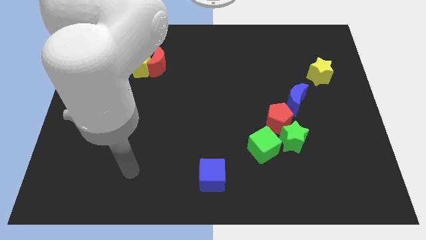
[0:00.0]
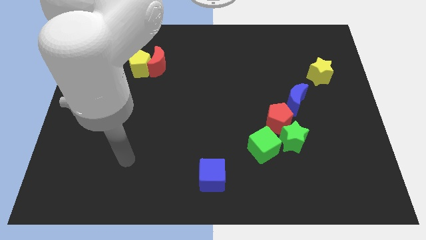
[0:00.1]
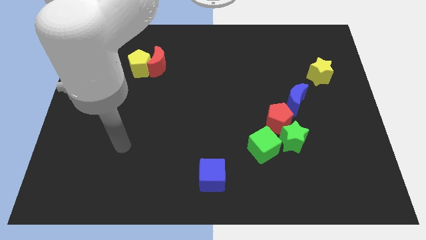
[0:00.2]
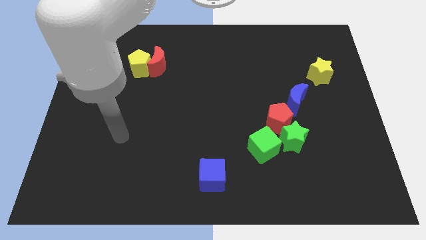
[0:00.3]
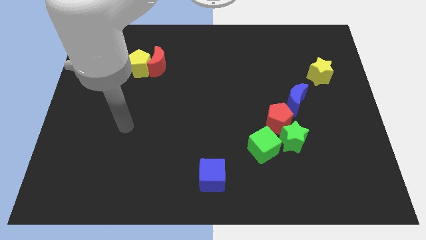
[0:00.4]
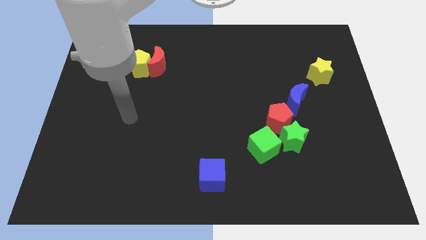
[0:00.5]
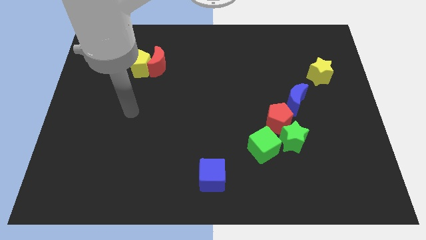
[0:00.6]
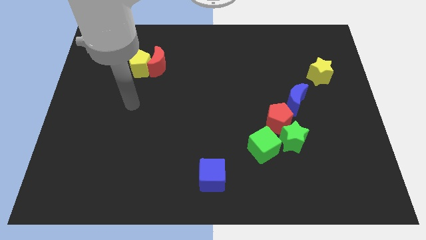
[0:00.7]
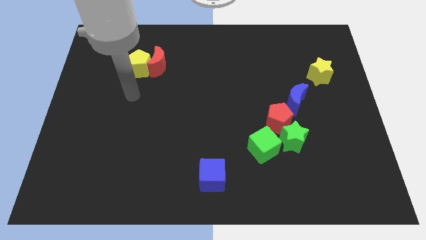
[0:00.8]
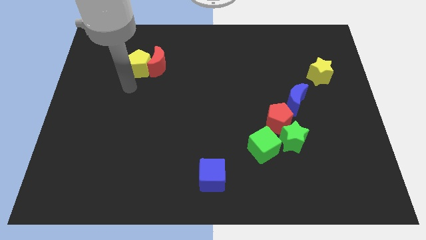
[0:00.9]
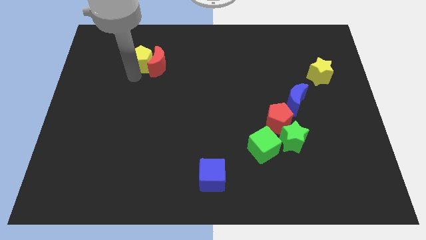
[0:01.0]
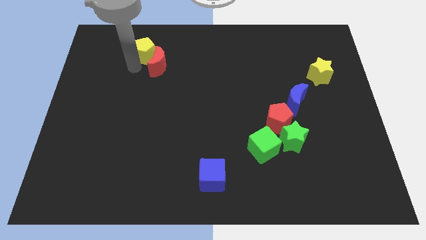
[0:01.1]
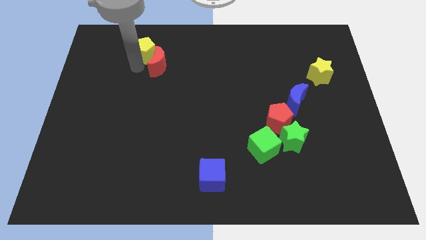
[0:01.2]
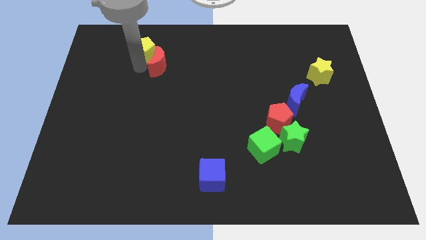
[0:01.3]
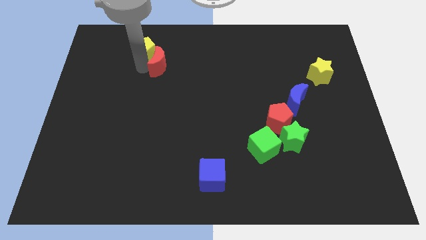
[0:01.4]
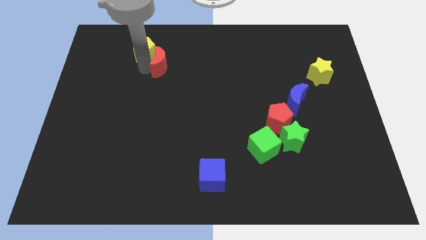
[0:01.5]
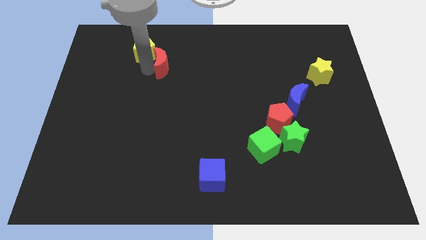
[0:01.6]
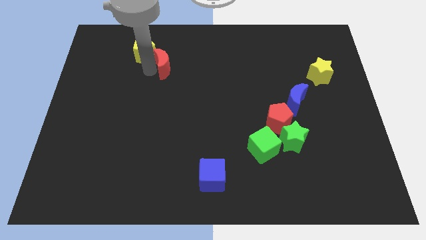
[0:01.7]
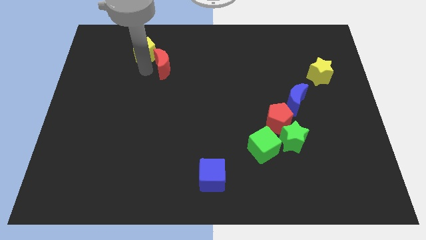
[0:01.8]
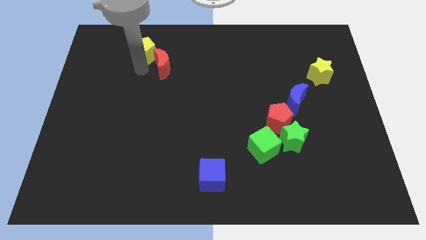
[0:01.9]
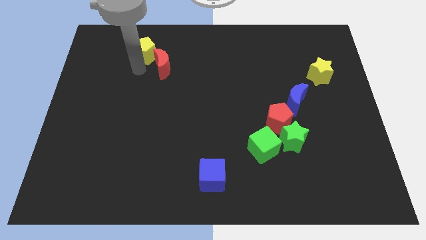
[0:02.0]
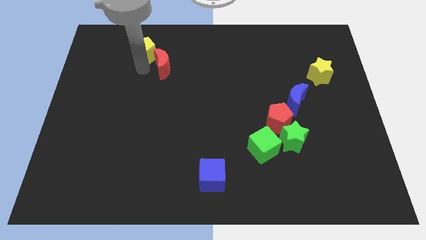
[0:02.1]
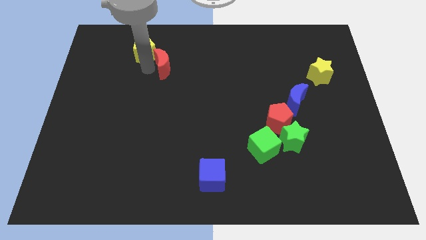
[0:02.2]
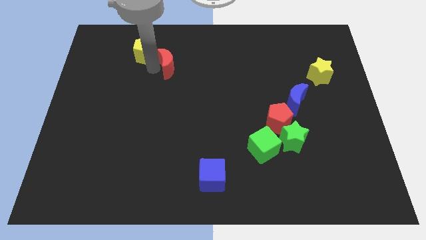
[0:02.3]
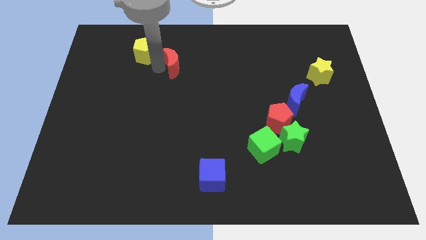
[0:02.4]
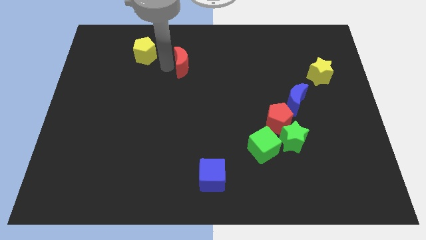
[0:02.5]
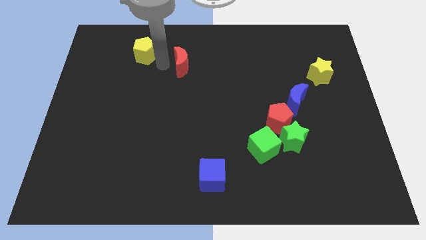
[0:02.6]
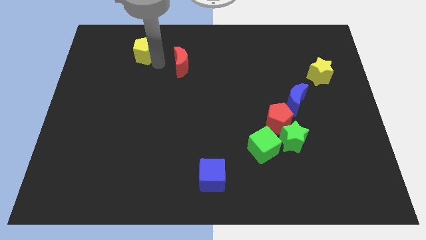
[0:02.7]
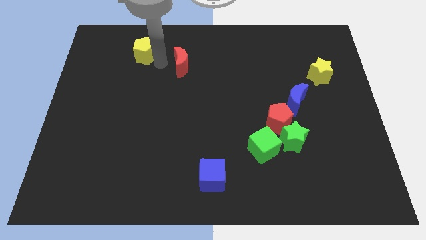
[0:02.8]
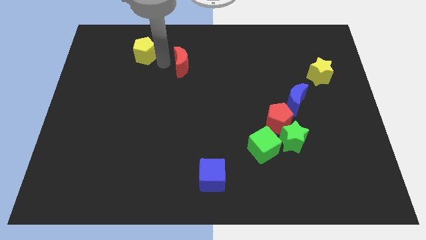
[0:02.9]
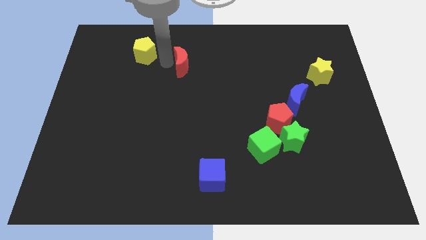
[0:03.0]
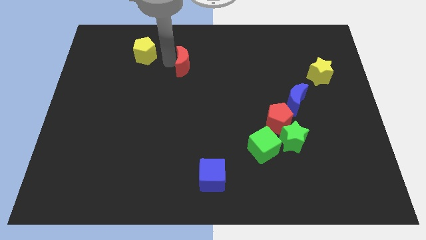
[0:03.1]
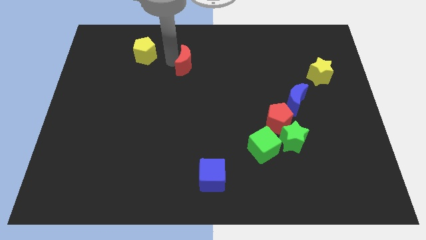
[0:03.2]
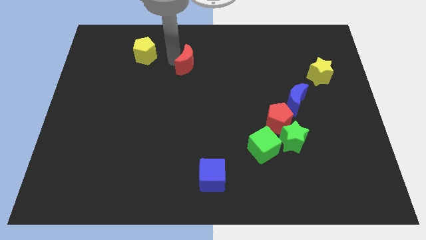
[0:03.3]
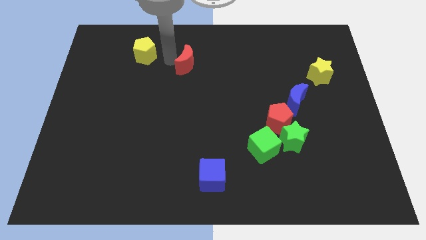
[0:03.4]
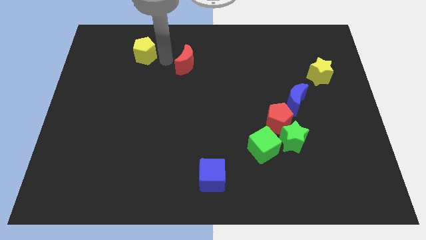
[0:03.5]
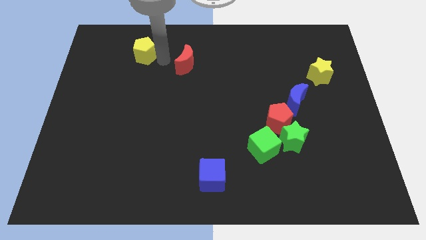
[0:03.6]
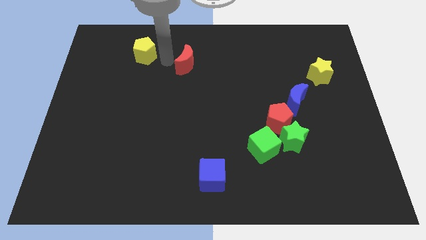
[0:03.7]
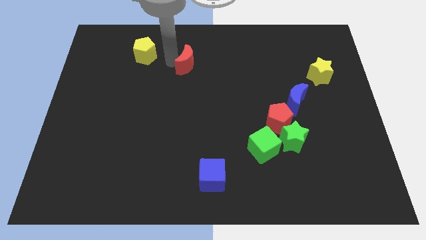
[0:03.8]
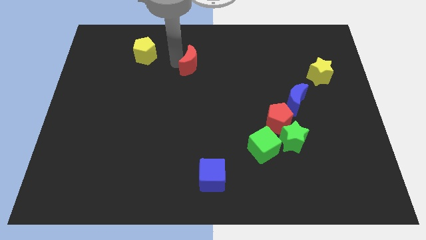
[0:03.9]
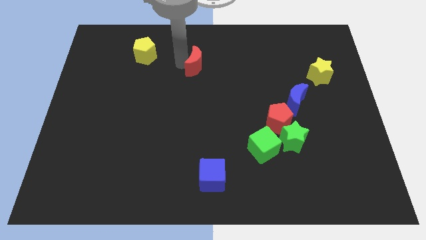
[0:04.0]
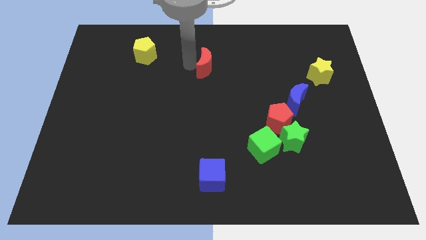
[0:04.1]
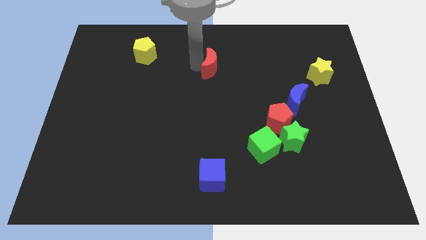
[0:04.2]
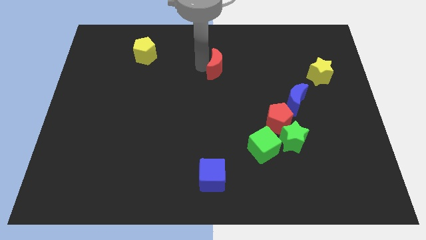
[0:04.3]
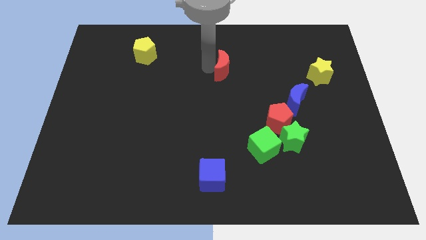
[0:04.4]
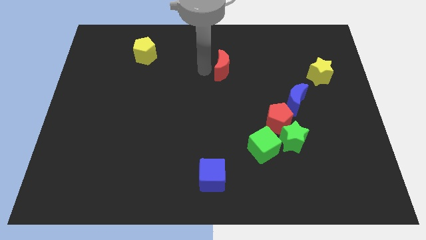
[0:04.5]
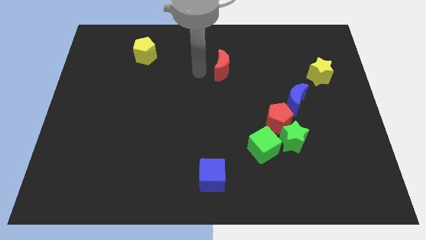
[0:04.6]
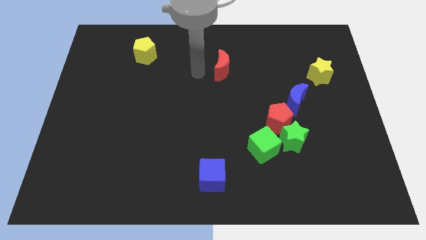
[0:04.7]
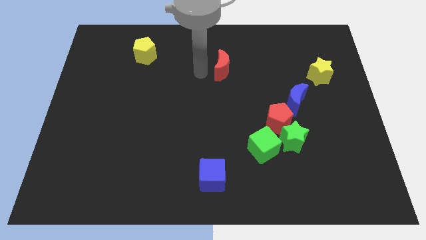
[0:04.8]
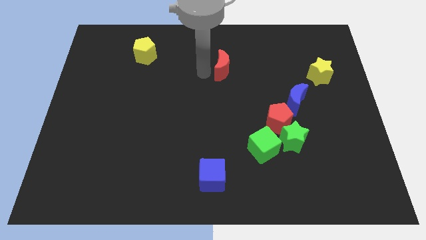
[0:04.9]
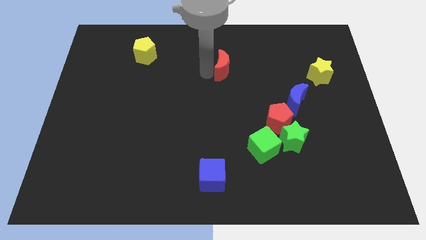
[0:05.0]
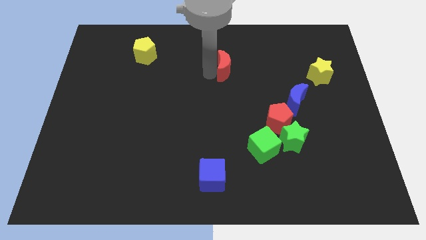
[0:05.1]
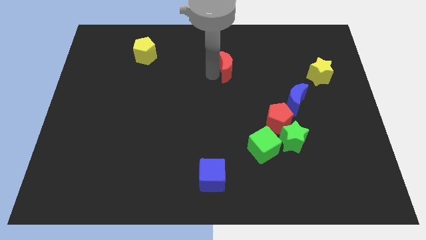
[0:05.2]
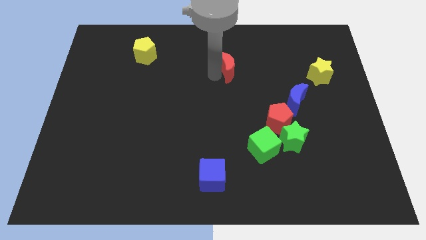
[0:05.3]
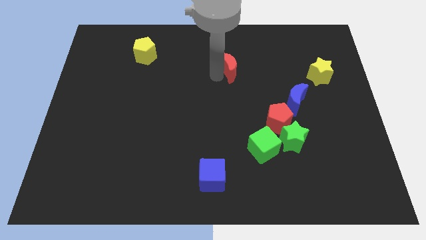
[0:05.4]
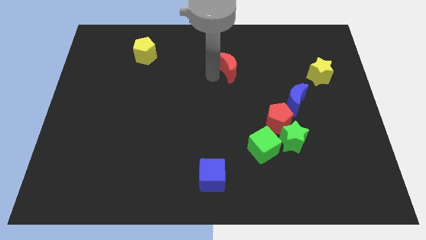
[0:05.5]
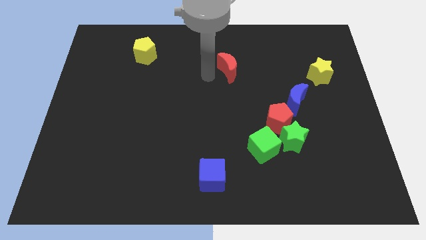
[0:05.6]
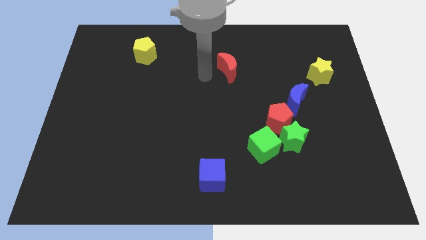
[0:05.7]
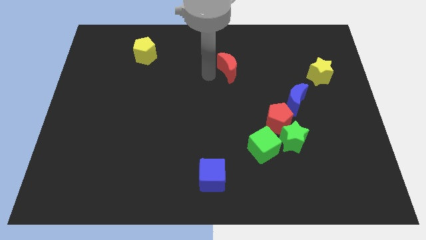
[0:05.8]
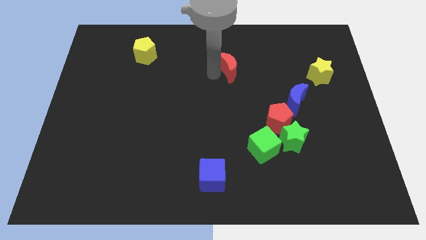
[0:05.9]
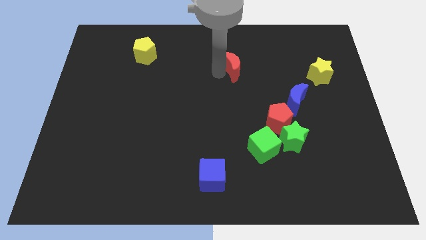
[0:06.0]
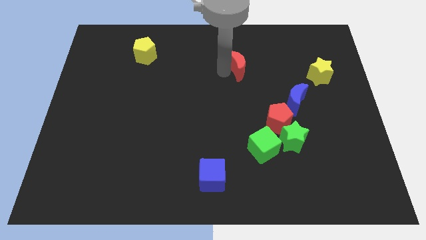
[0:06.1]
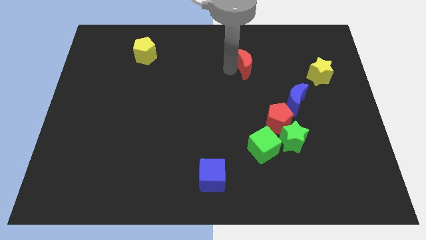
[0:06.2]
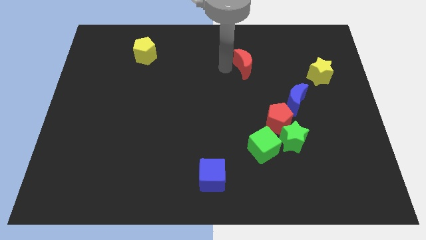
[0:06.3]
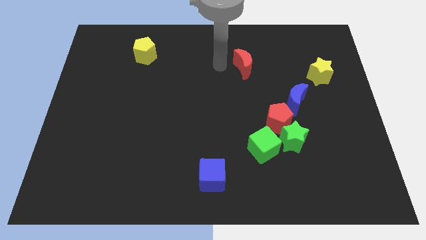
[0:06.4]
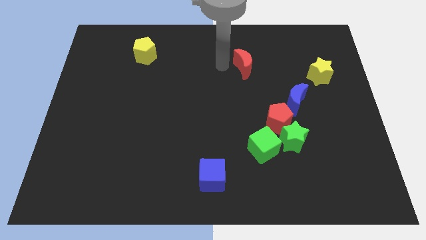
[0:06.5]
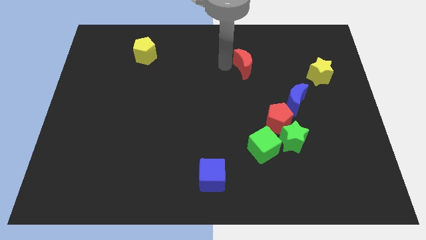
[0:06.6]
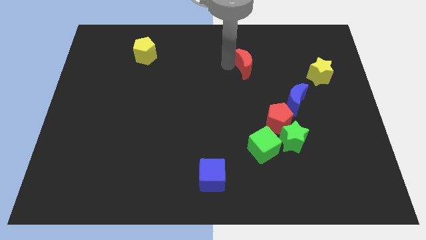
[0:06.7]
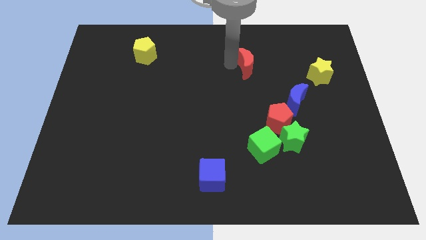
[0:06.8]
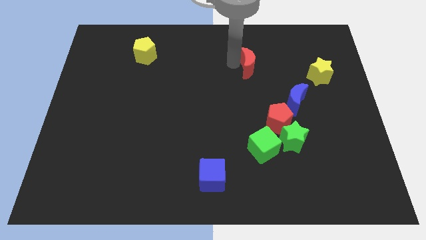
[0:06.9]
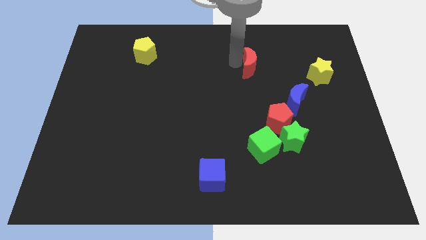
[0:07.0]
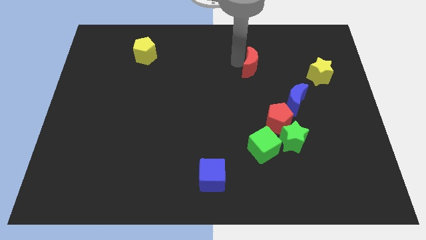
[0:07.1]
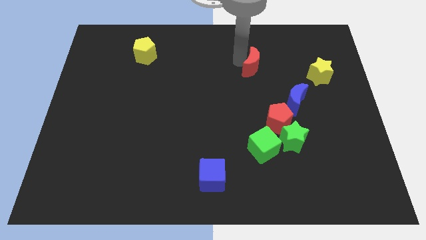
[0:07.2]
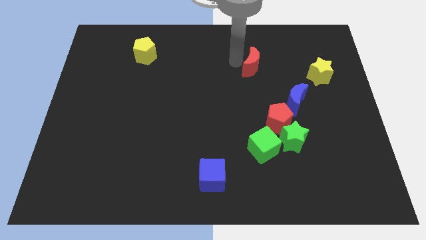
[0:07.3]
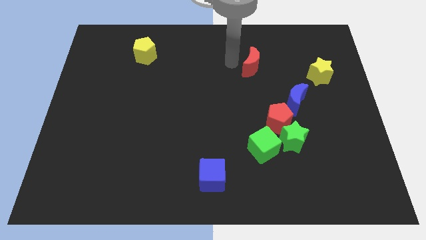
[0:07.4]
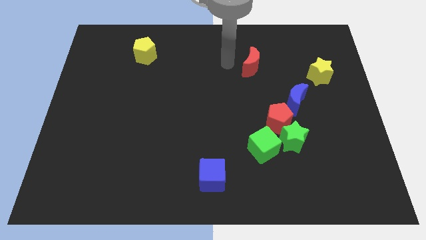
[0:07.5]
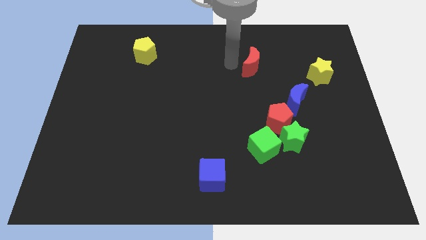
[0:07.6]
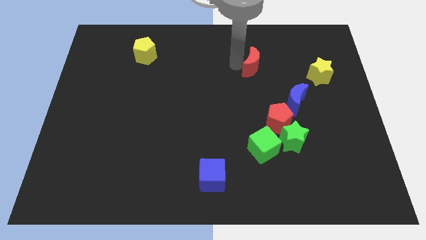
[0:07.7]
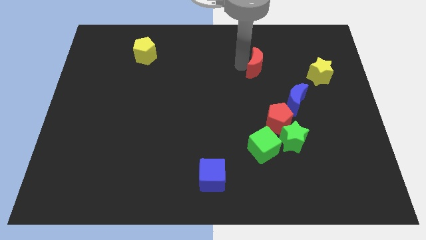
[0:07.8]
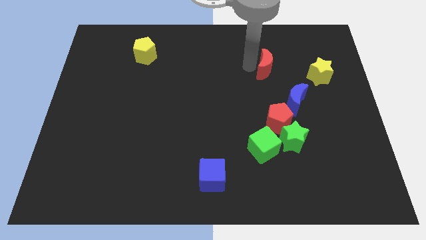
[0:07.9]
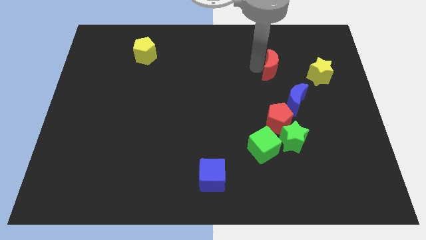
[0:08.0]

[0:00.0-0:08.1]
put the red moon above the blue moon
